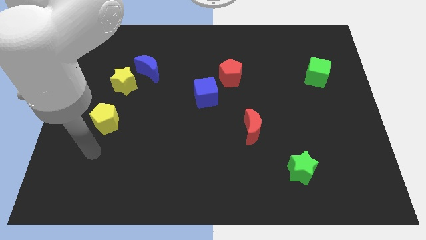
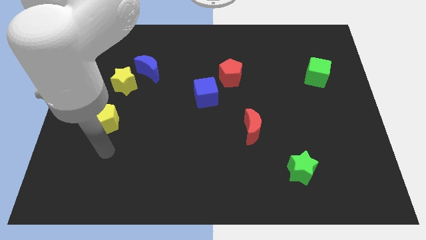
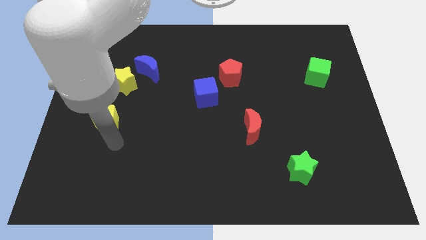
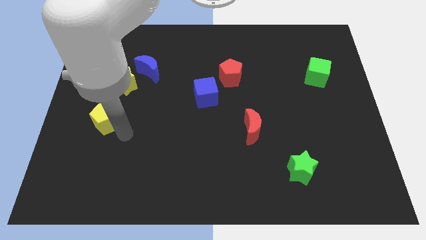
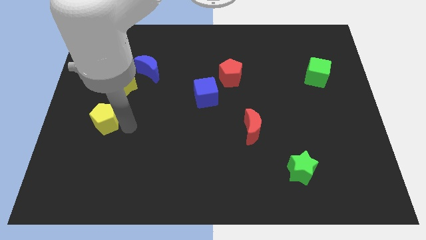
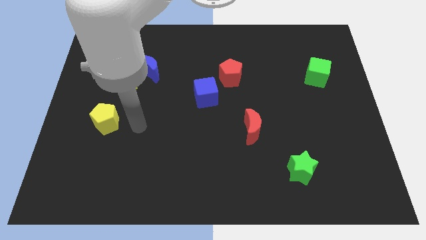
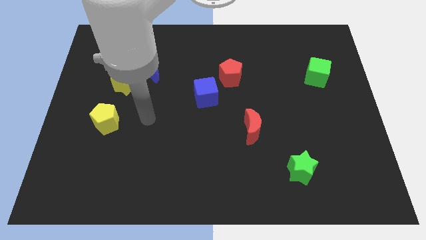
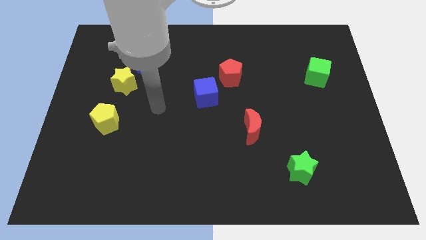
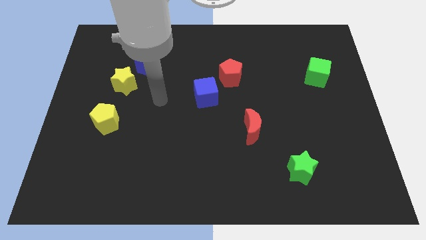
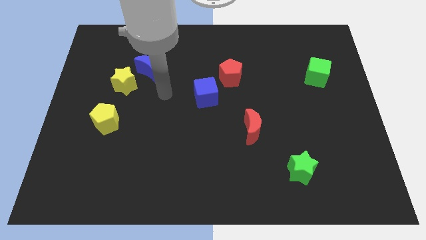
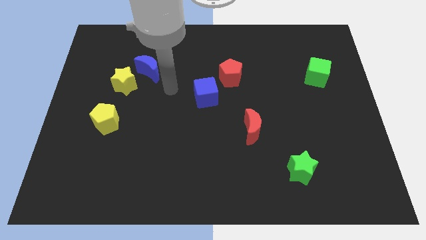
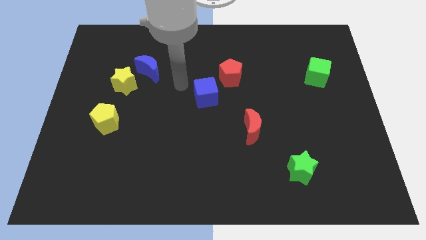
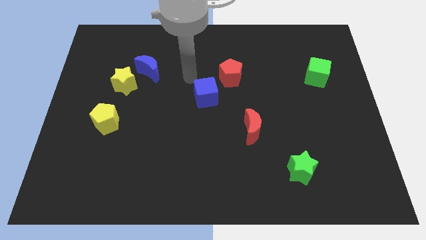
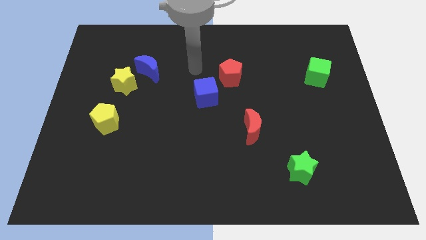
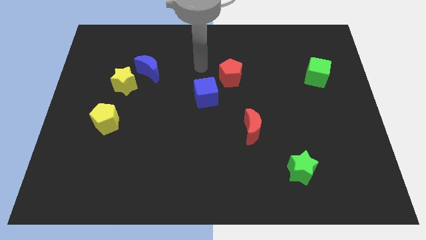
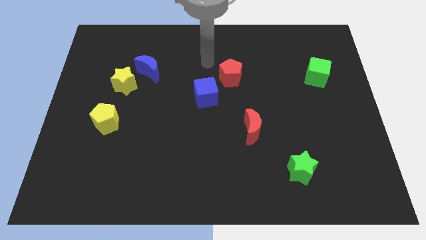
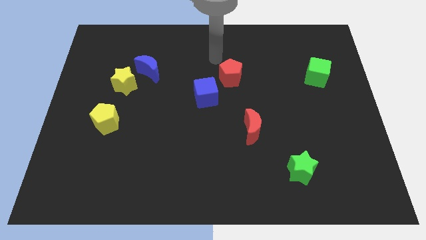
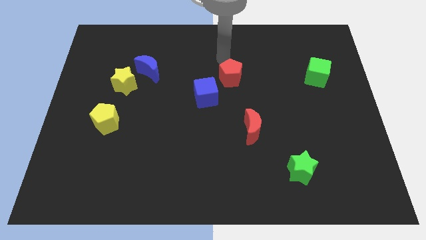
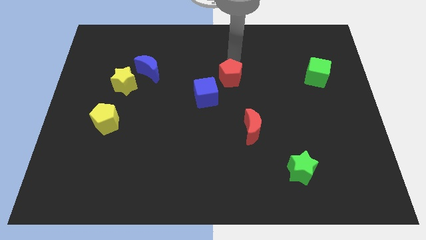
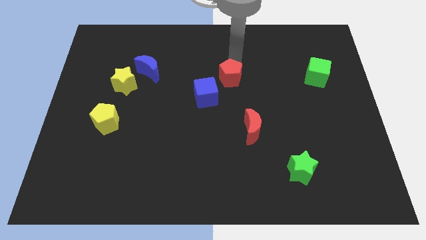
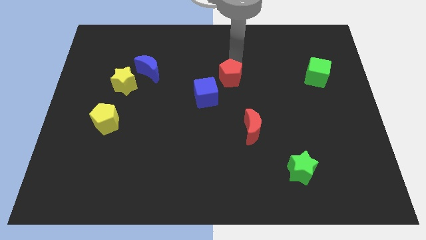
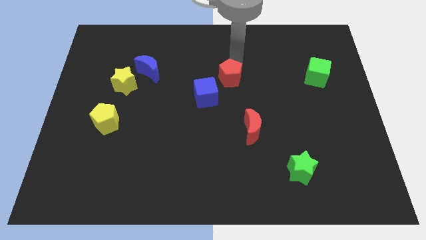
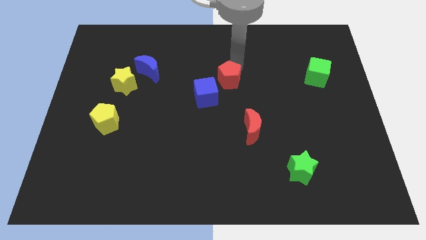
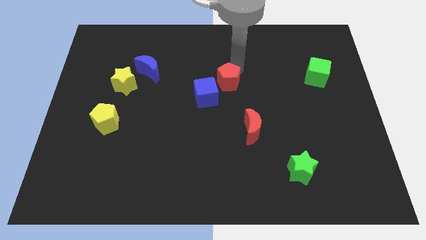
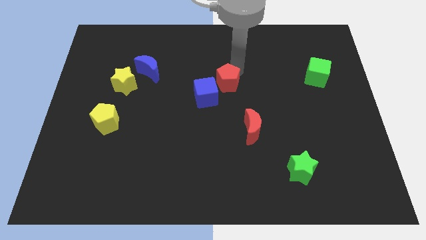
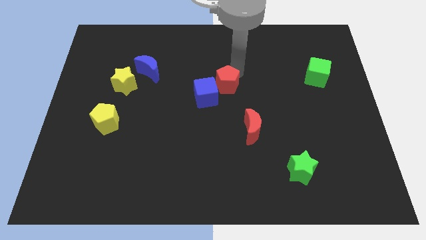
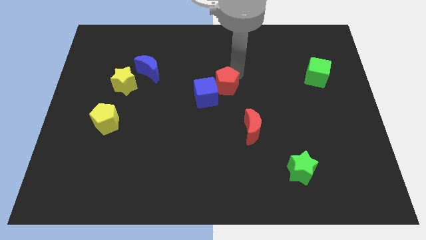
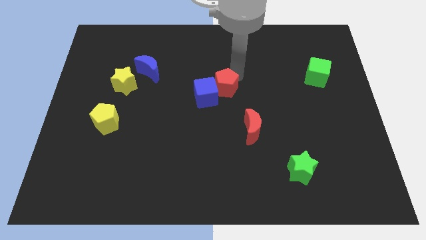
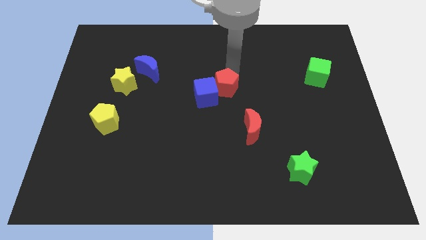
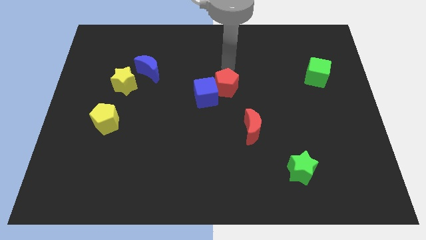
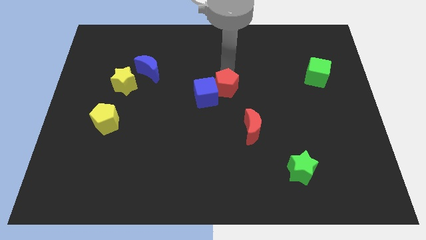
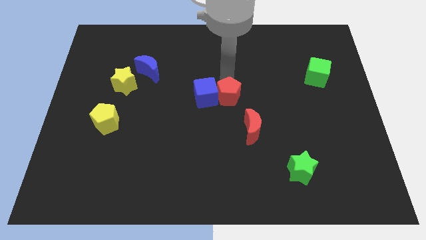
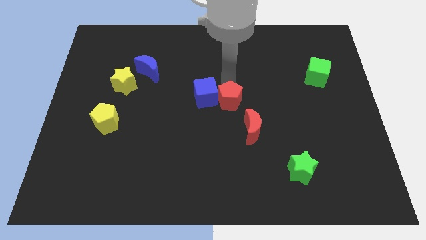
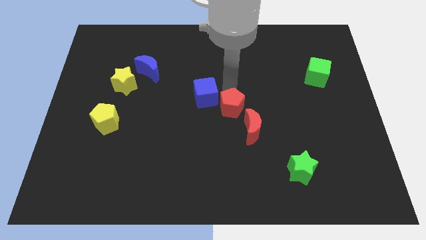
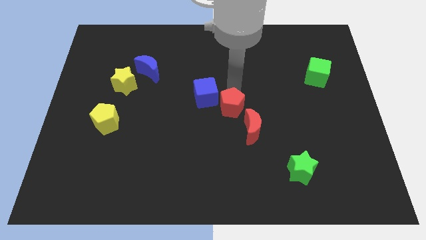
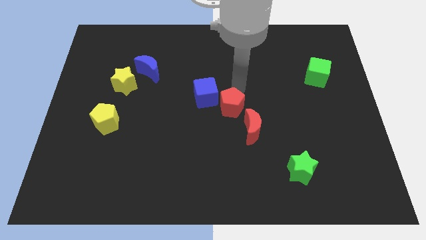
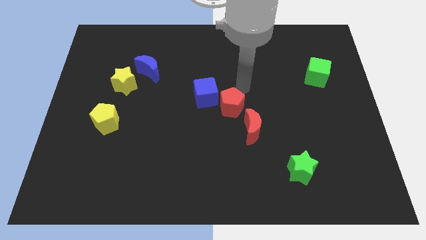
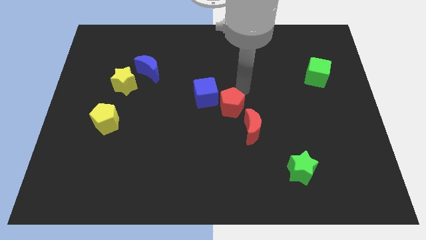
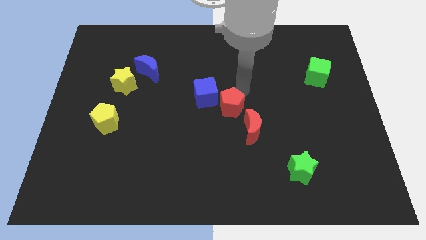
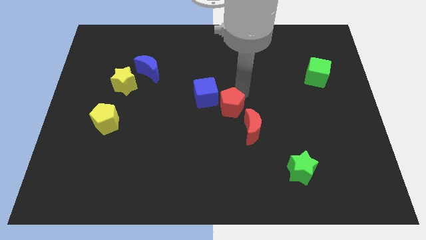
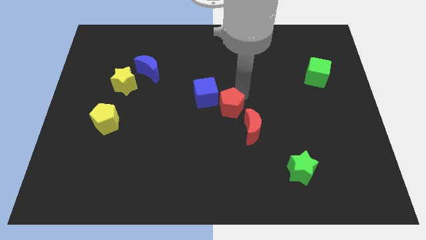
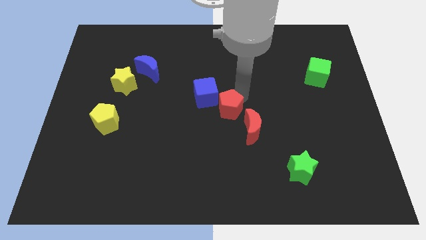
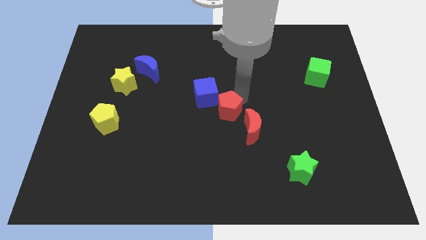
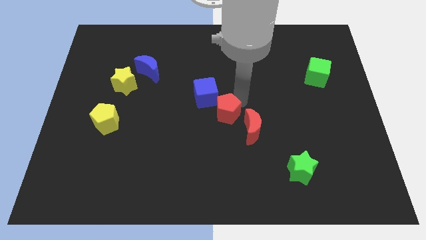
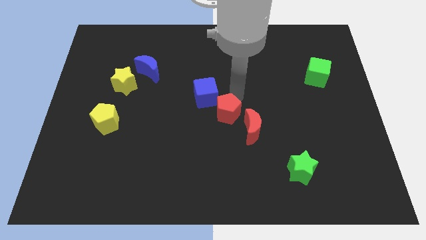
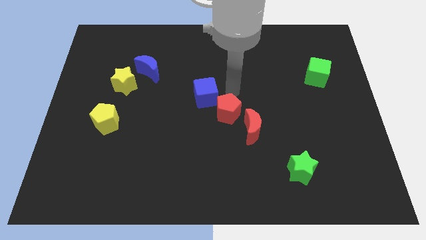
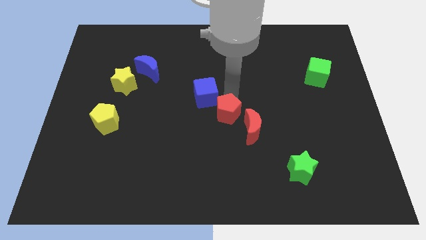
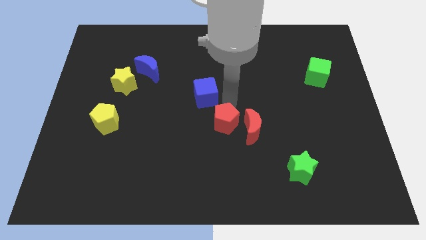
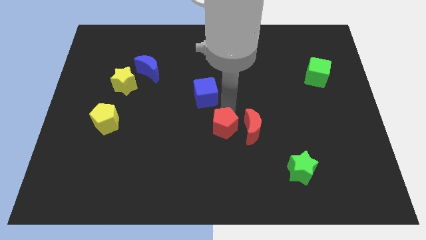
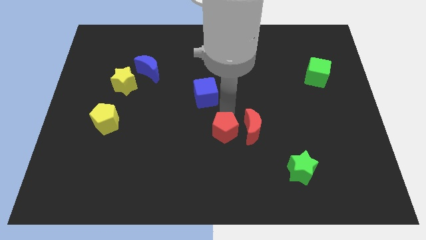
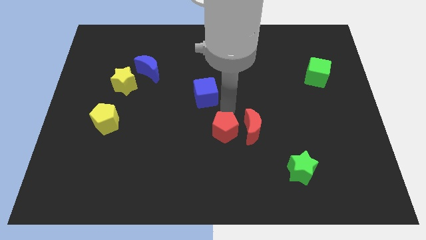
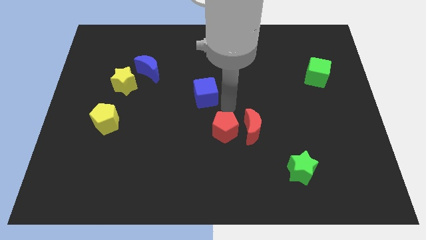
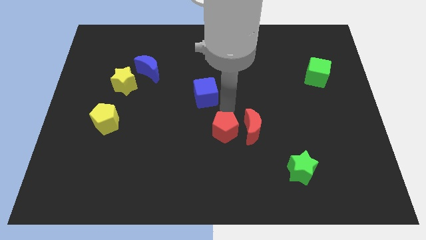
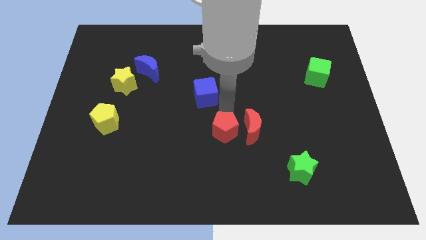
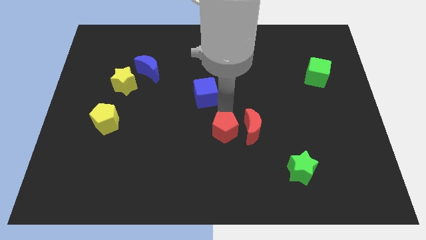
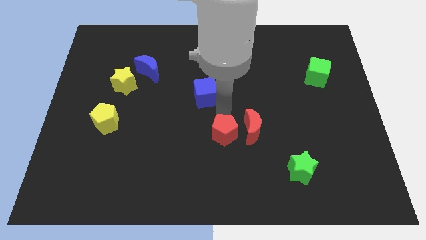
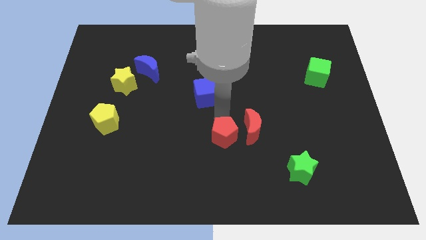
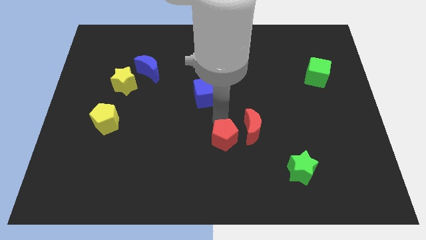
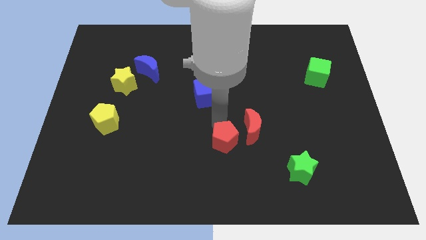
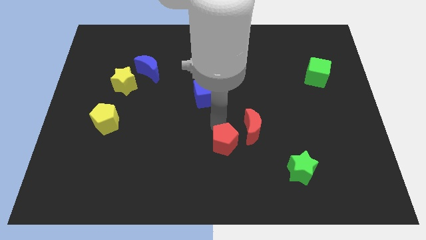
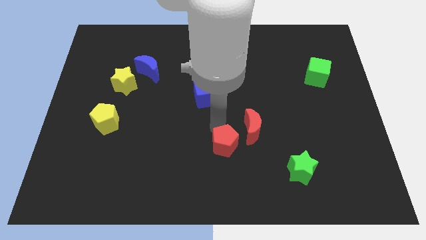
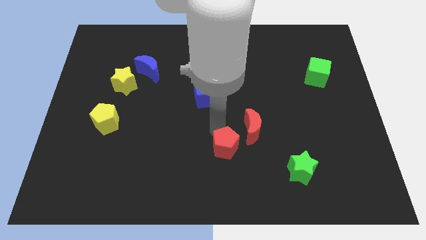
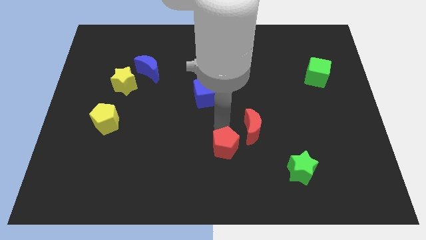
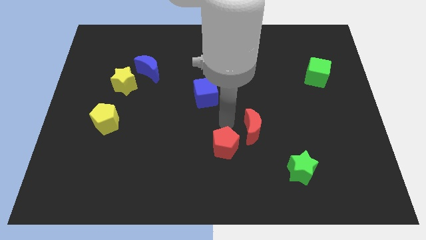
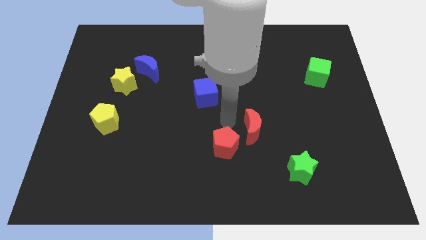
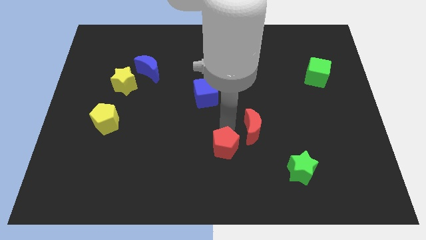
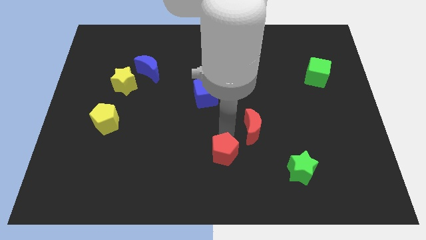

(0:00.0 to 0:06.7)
put the red pentagon to the bottom

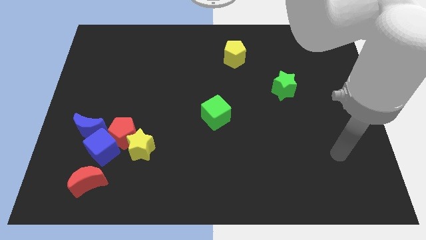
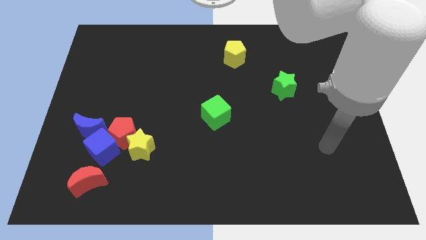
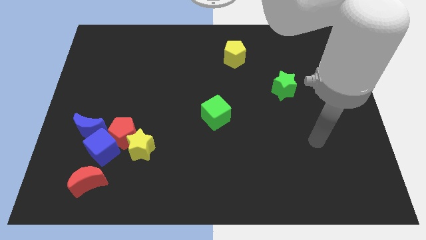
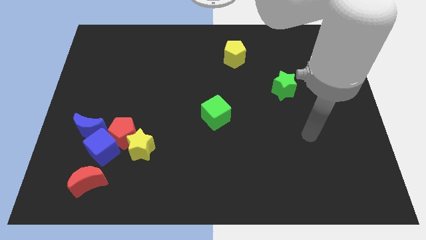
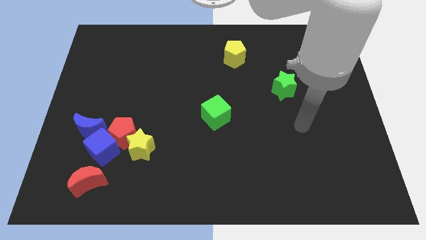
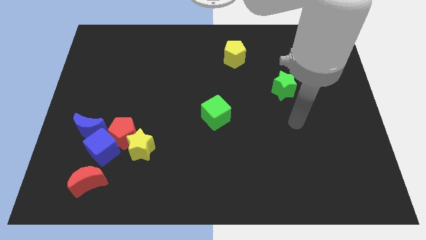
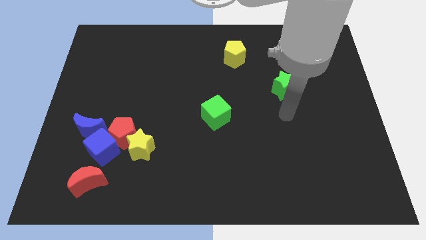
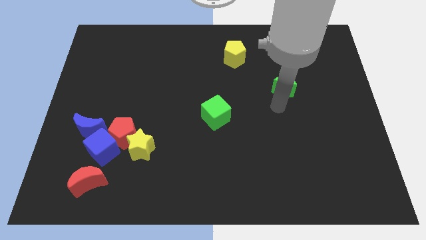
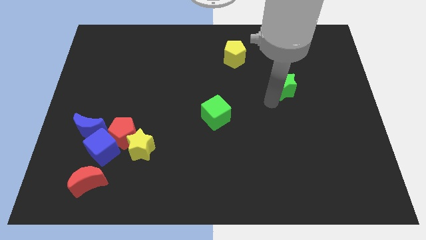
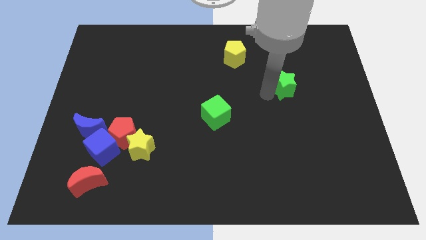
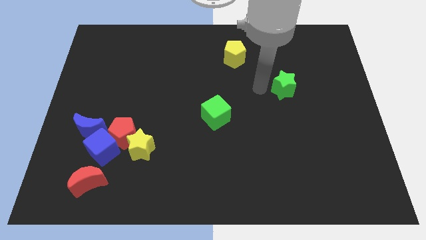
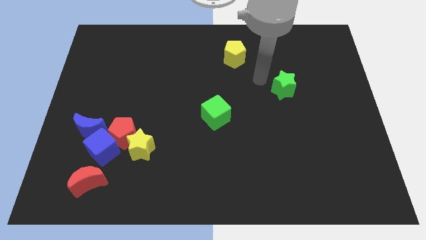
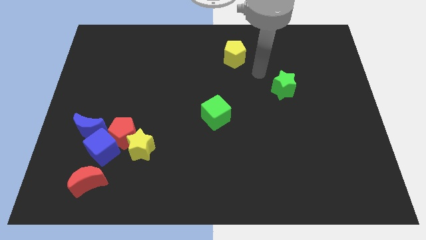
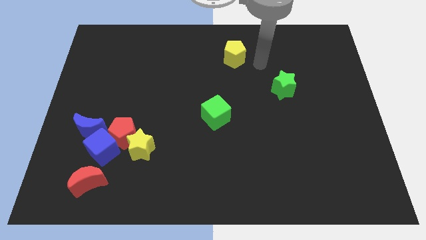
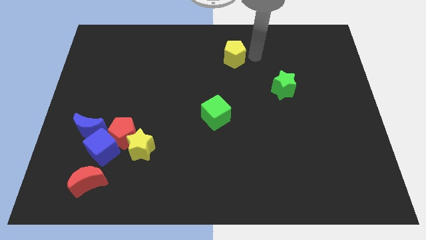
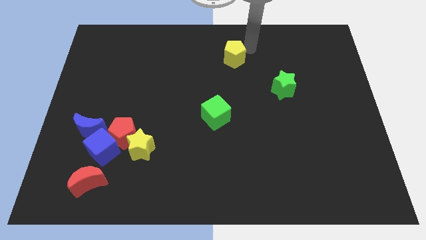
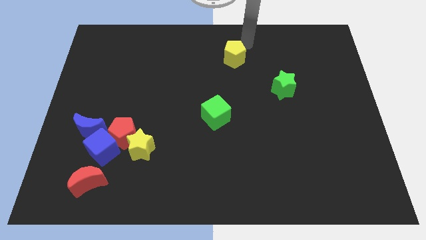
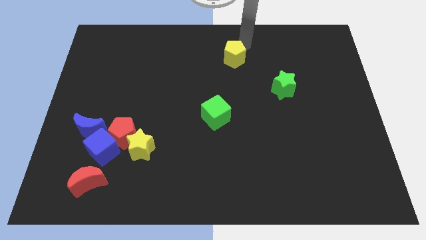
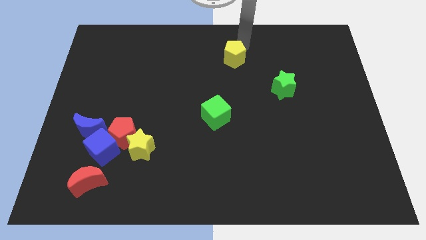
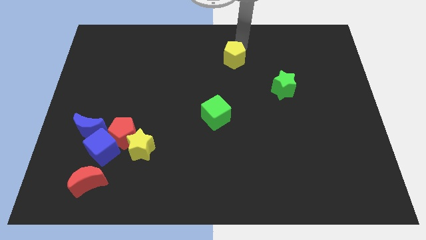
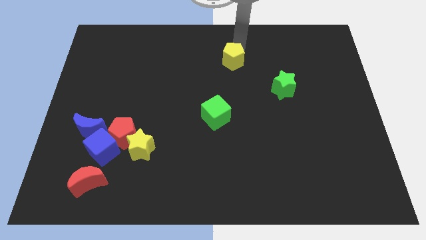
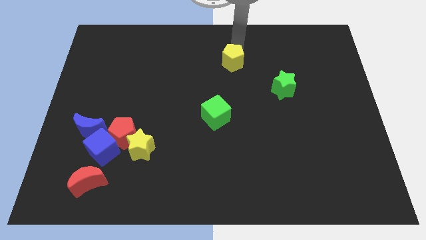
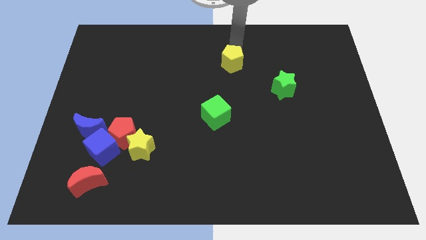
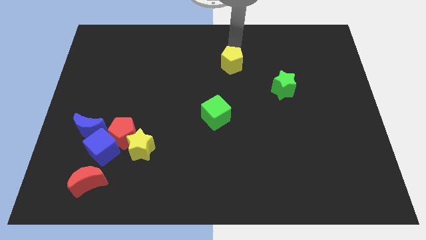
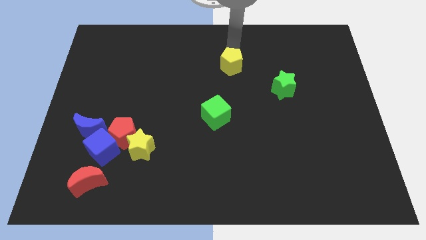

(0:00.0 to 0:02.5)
move the yellow pentagon to the middle of the board
